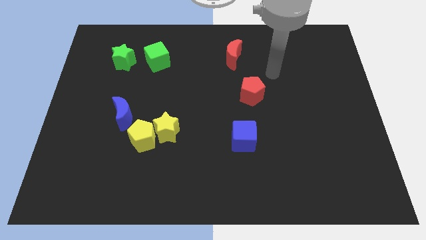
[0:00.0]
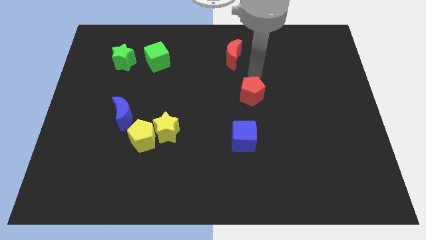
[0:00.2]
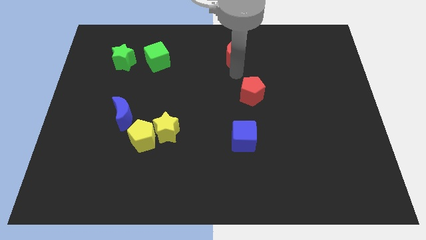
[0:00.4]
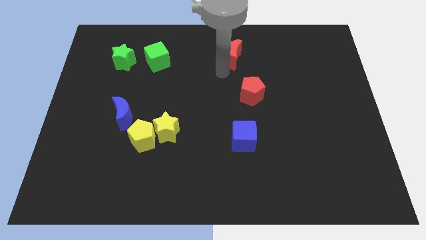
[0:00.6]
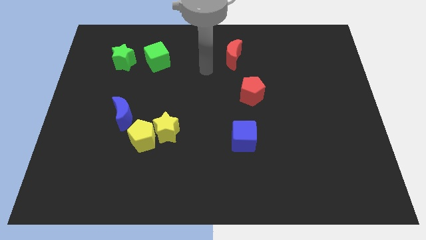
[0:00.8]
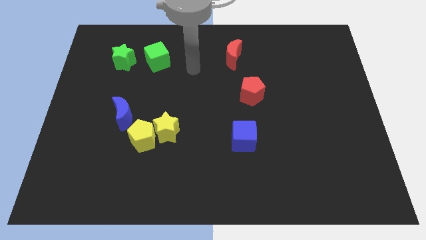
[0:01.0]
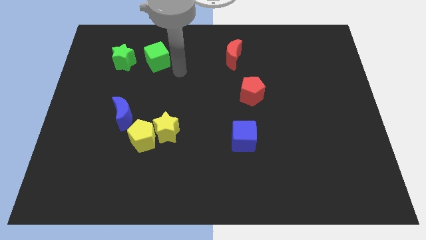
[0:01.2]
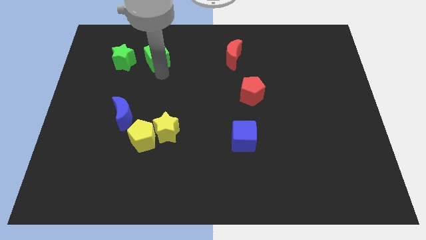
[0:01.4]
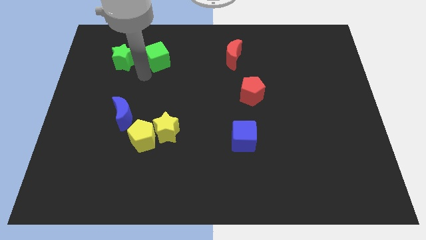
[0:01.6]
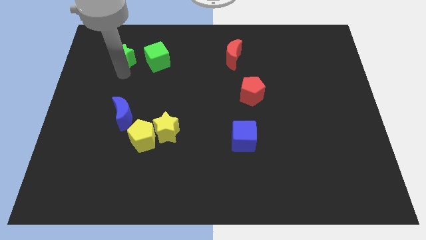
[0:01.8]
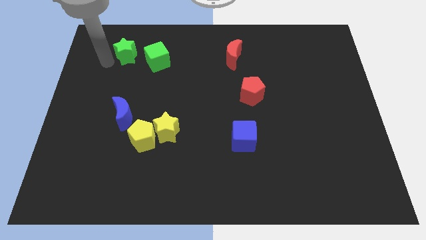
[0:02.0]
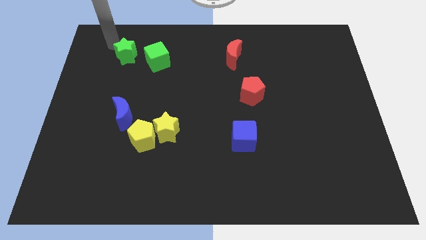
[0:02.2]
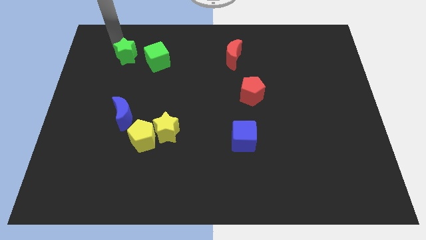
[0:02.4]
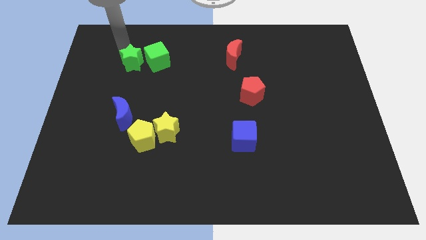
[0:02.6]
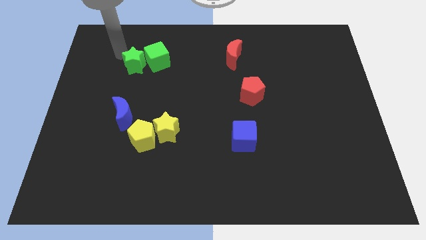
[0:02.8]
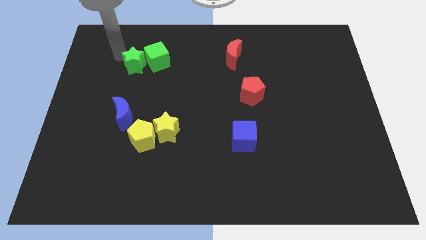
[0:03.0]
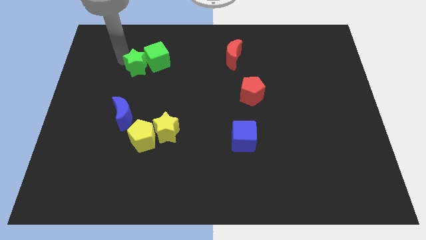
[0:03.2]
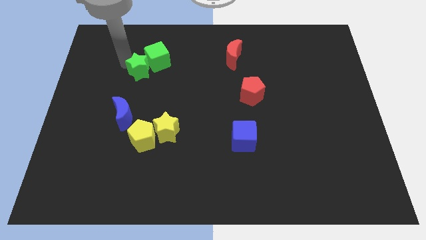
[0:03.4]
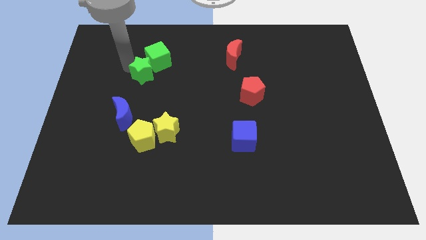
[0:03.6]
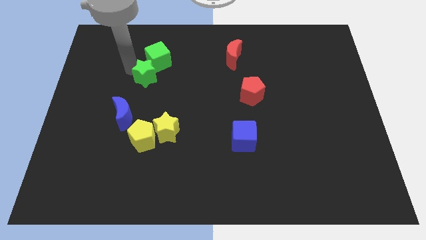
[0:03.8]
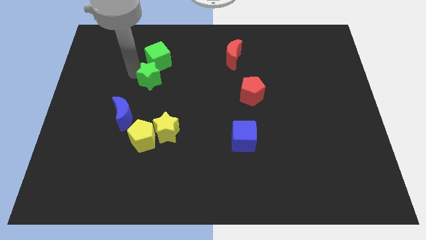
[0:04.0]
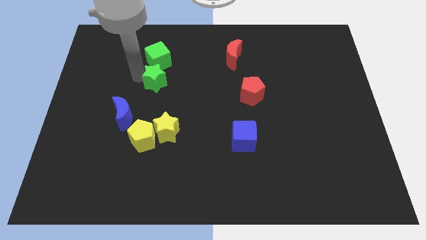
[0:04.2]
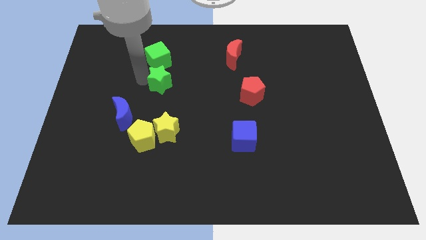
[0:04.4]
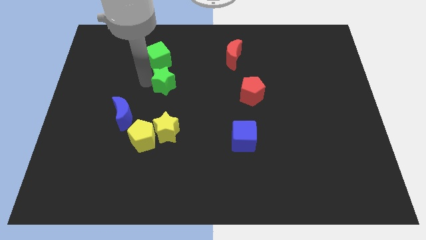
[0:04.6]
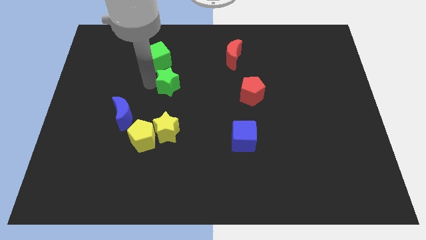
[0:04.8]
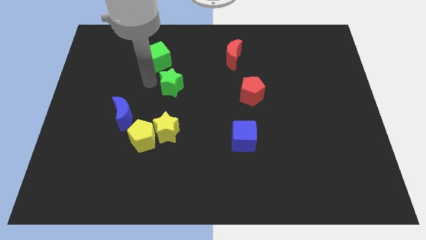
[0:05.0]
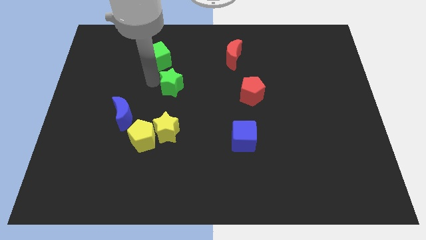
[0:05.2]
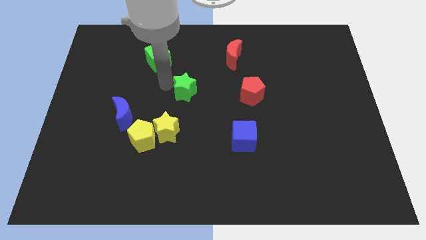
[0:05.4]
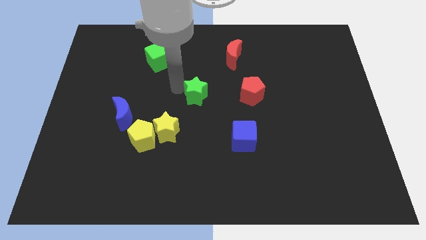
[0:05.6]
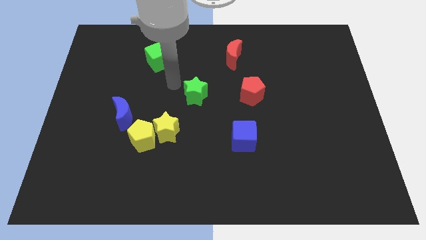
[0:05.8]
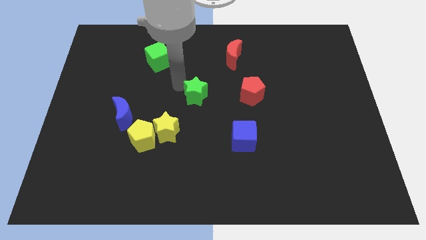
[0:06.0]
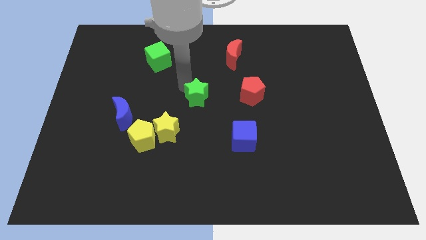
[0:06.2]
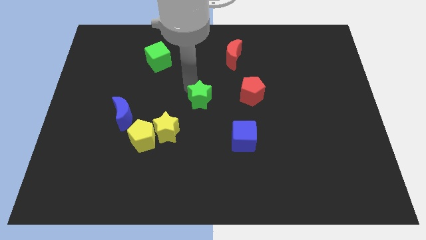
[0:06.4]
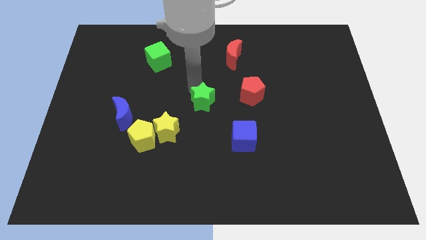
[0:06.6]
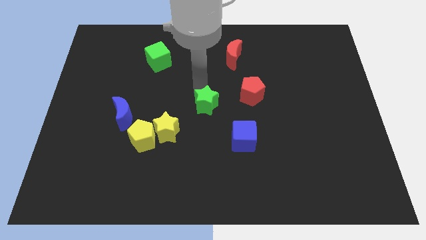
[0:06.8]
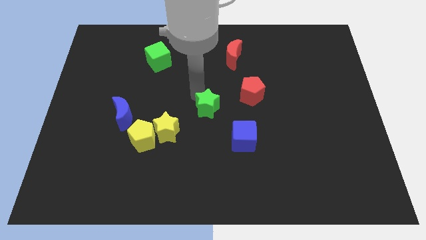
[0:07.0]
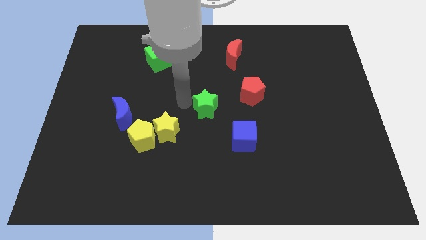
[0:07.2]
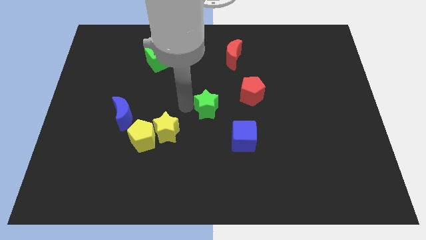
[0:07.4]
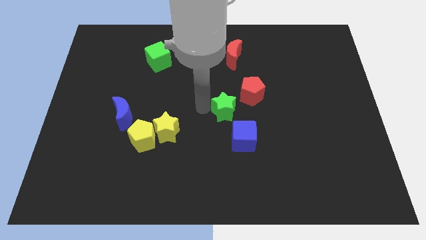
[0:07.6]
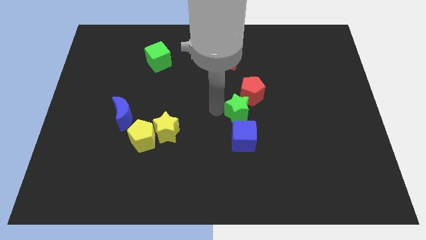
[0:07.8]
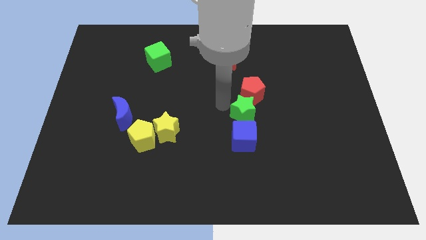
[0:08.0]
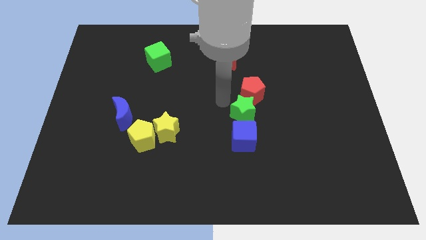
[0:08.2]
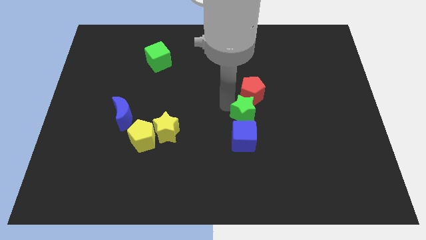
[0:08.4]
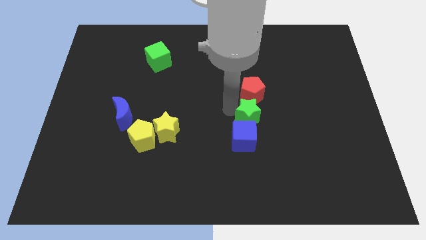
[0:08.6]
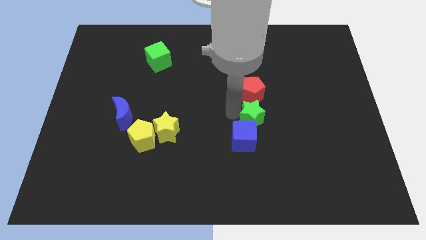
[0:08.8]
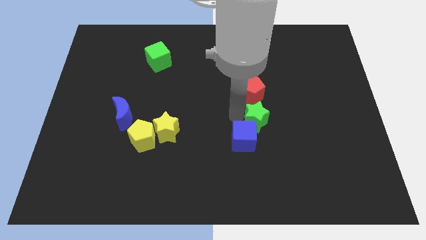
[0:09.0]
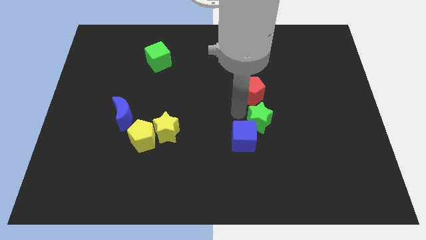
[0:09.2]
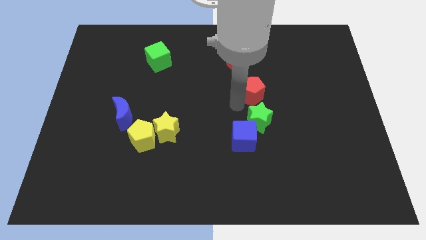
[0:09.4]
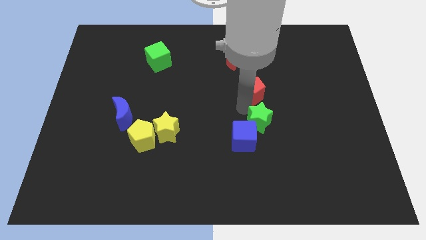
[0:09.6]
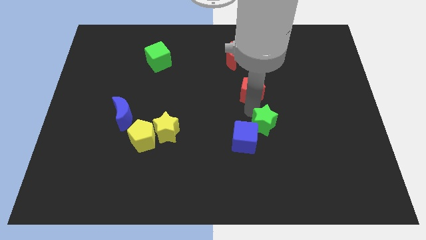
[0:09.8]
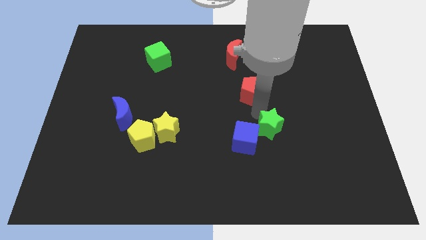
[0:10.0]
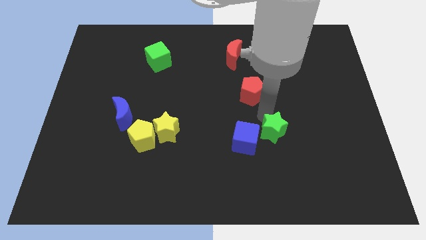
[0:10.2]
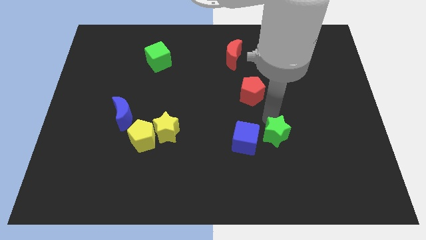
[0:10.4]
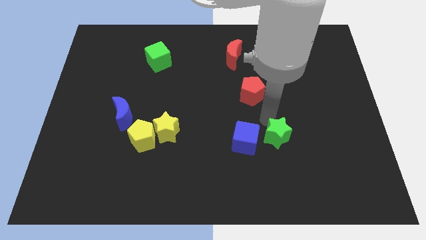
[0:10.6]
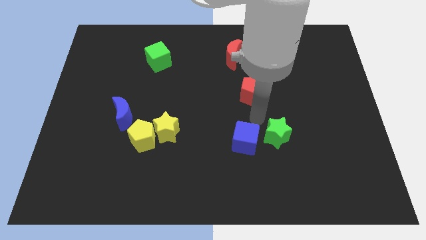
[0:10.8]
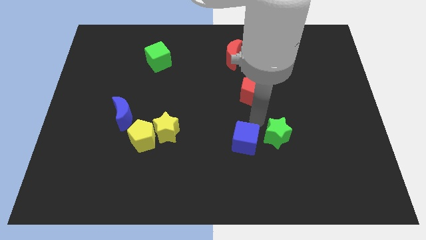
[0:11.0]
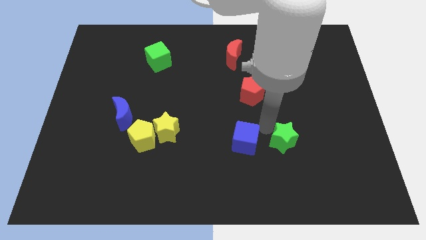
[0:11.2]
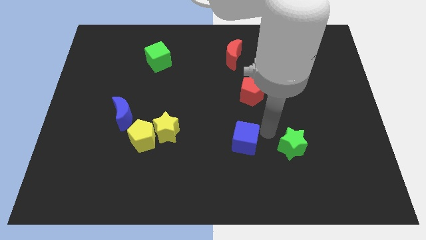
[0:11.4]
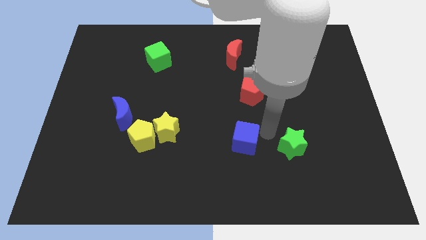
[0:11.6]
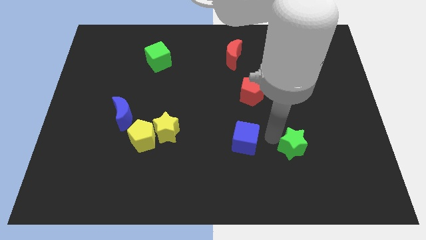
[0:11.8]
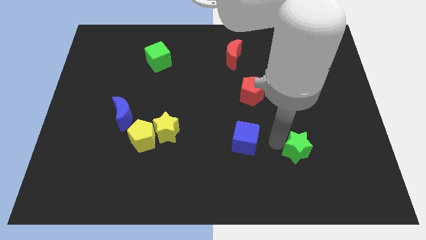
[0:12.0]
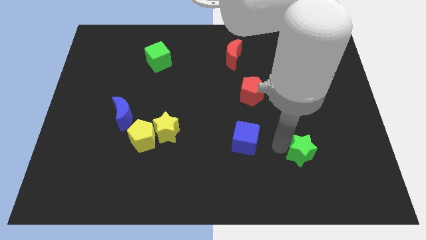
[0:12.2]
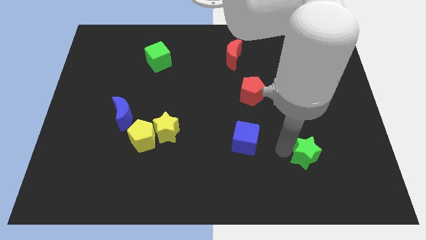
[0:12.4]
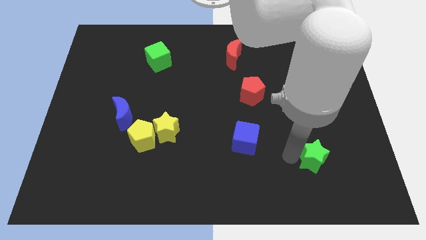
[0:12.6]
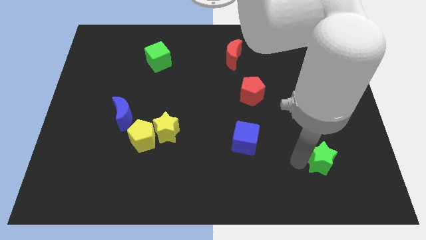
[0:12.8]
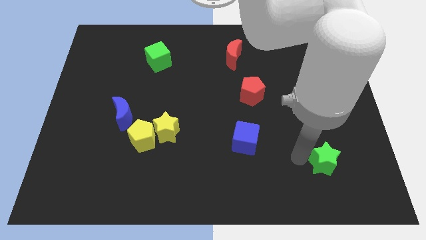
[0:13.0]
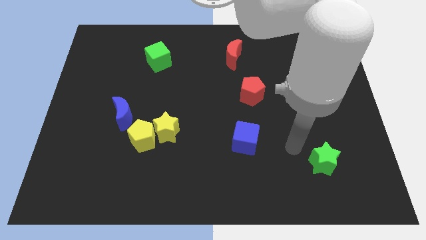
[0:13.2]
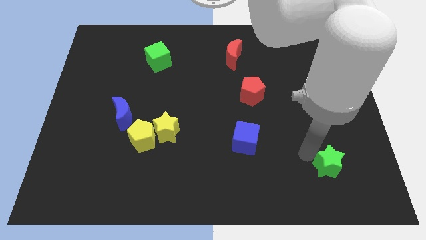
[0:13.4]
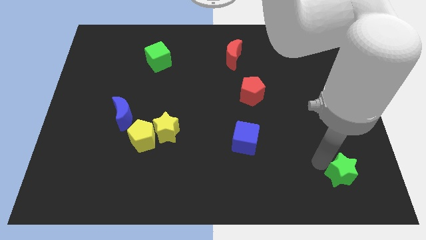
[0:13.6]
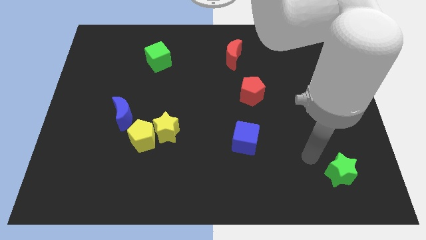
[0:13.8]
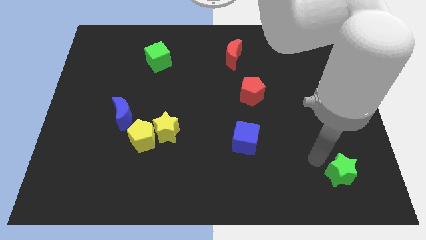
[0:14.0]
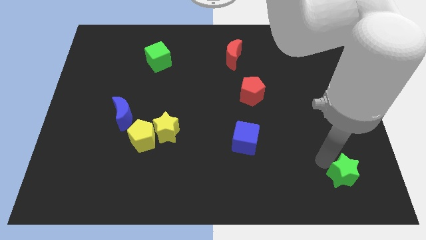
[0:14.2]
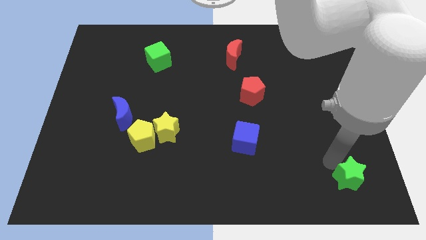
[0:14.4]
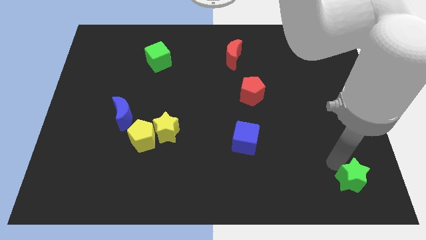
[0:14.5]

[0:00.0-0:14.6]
slide the green star to the bottom right
